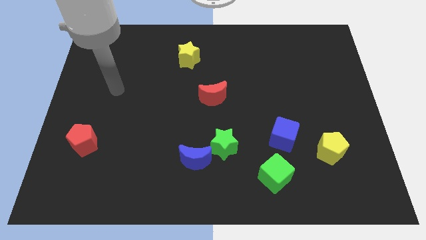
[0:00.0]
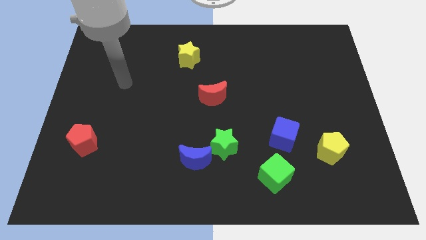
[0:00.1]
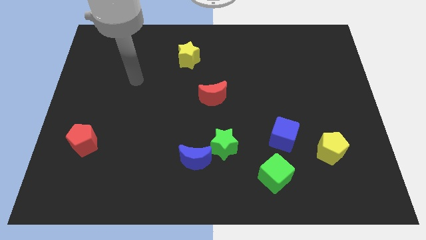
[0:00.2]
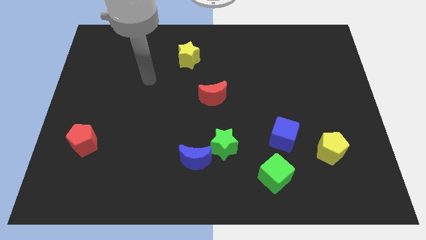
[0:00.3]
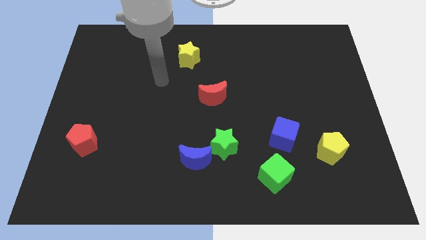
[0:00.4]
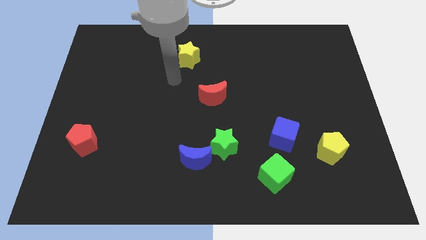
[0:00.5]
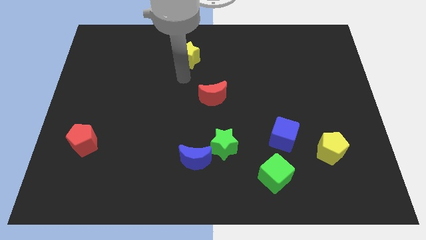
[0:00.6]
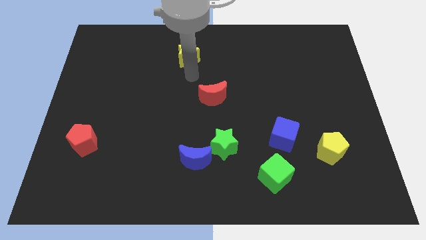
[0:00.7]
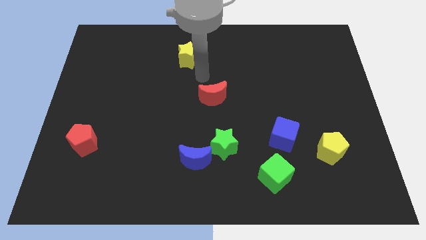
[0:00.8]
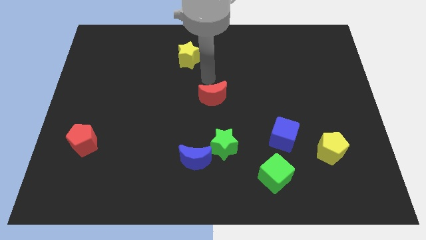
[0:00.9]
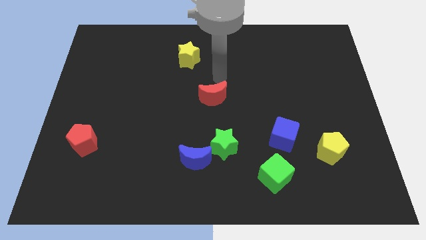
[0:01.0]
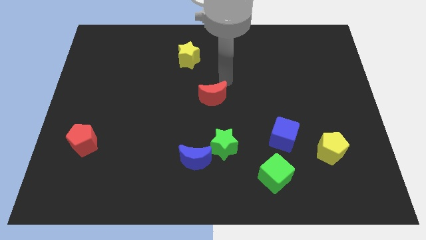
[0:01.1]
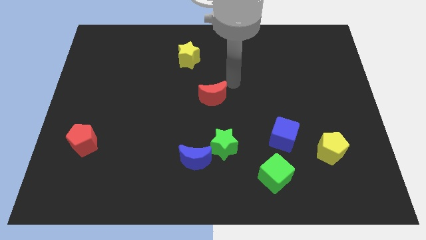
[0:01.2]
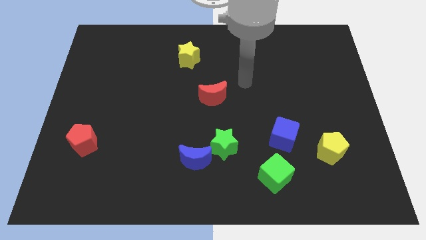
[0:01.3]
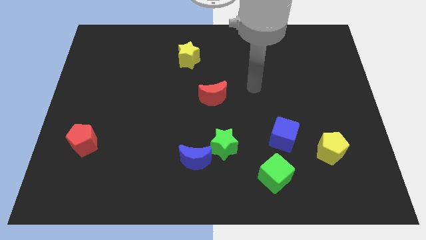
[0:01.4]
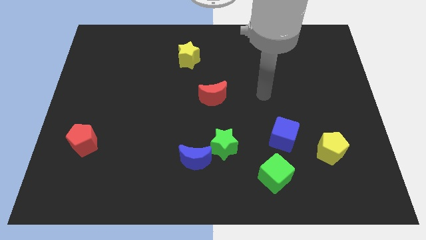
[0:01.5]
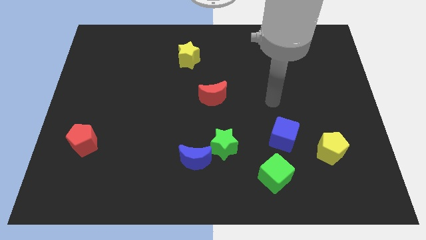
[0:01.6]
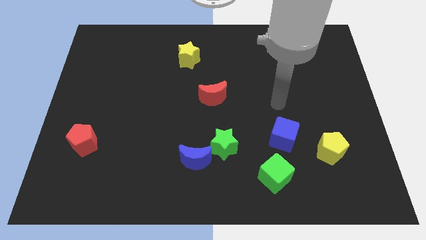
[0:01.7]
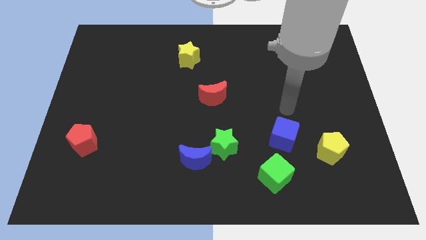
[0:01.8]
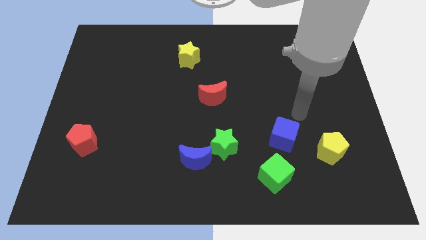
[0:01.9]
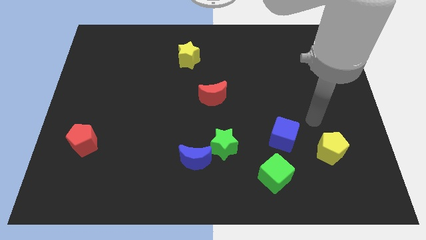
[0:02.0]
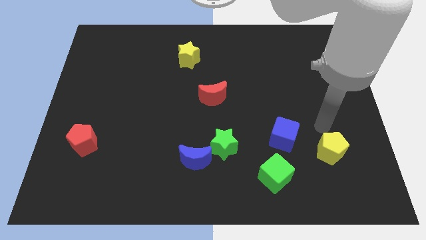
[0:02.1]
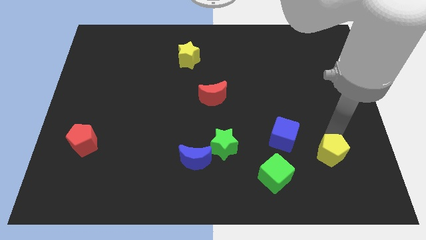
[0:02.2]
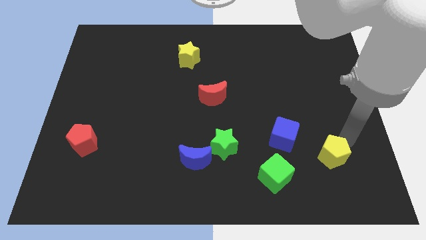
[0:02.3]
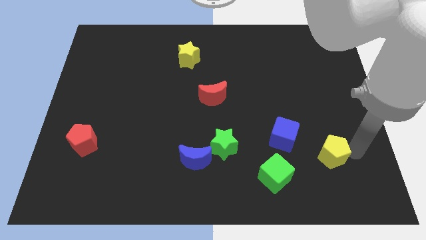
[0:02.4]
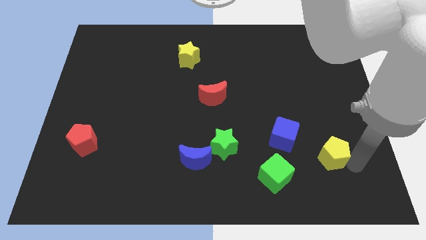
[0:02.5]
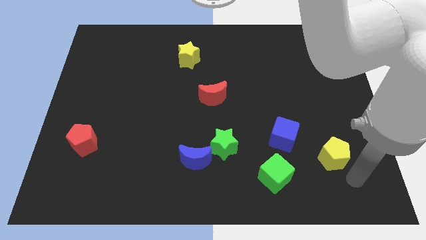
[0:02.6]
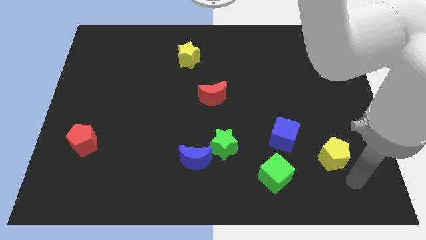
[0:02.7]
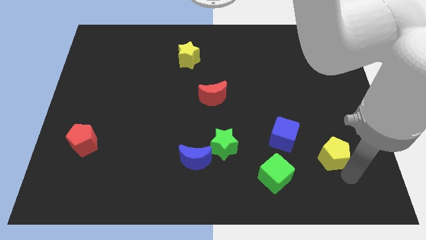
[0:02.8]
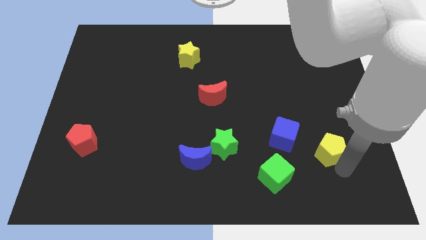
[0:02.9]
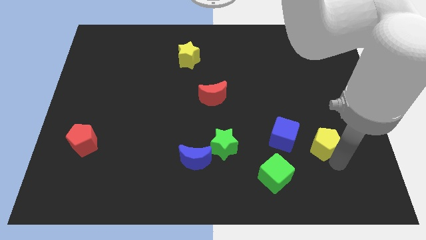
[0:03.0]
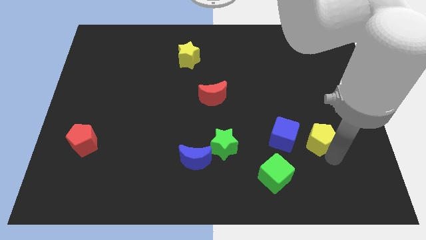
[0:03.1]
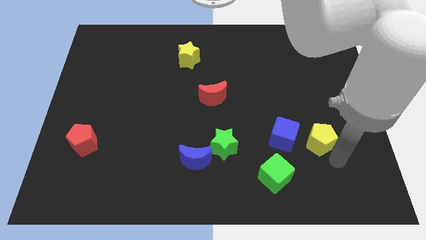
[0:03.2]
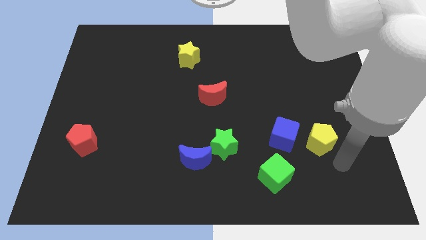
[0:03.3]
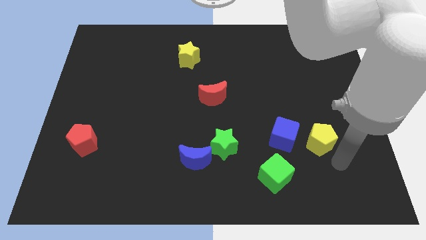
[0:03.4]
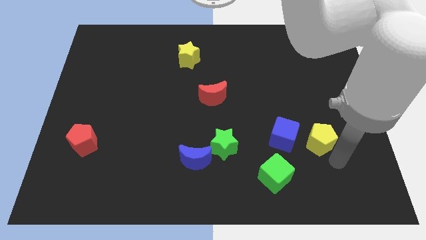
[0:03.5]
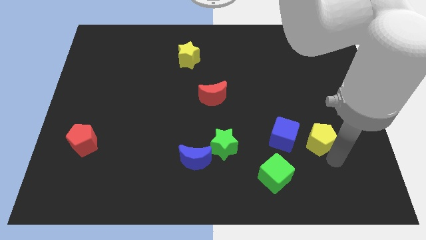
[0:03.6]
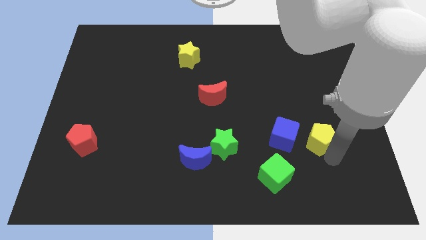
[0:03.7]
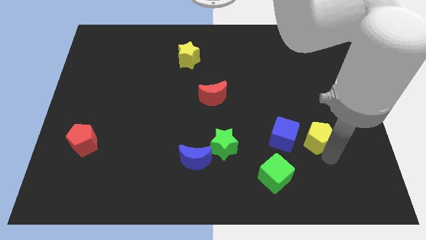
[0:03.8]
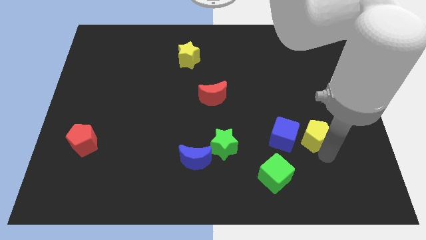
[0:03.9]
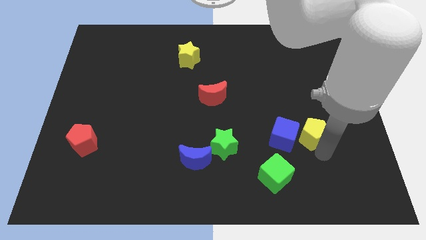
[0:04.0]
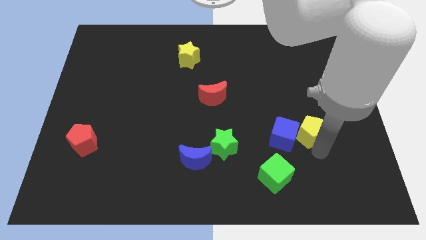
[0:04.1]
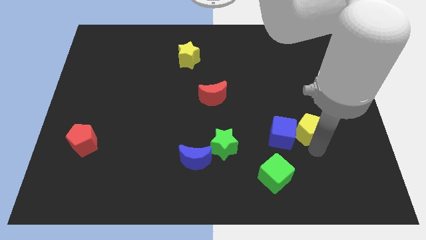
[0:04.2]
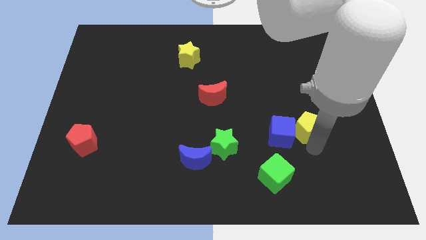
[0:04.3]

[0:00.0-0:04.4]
move the yellow pentagon diagonally up and to the left slightly

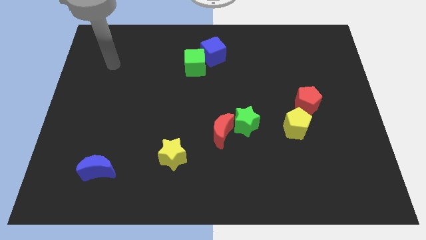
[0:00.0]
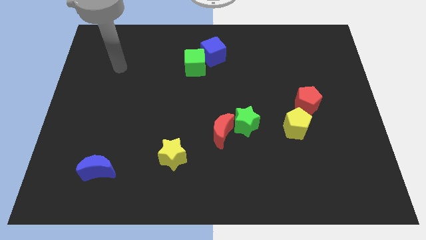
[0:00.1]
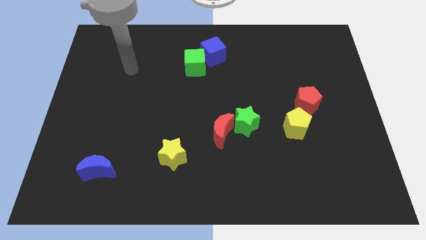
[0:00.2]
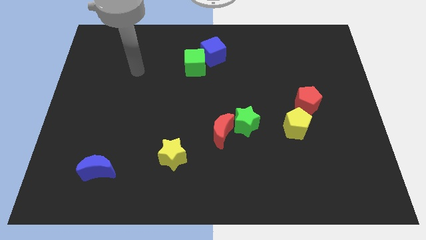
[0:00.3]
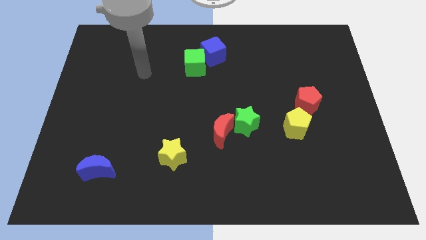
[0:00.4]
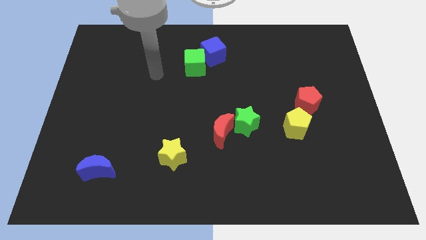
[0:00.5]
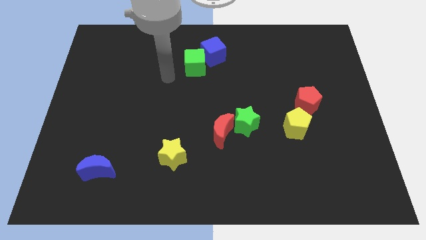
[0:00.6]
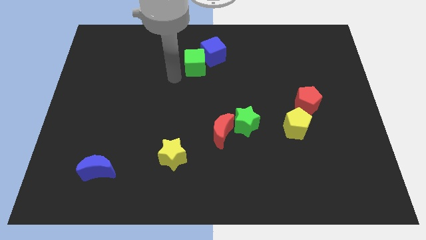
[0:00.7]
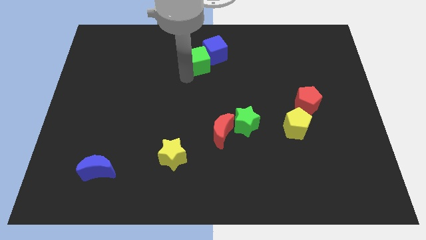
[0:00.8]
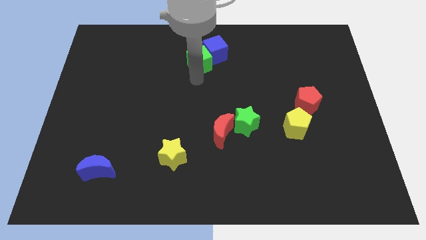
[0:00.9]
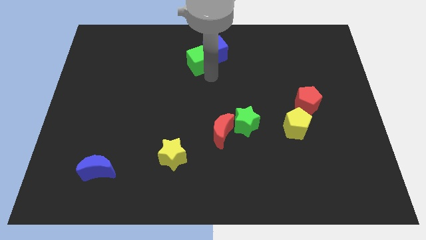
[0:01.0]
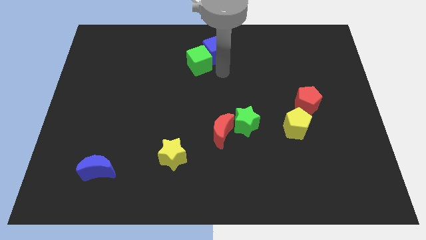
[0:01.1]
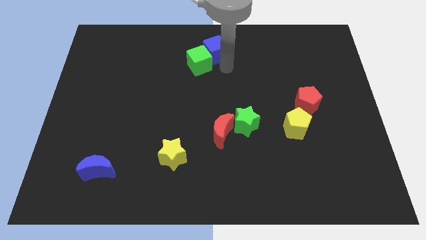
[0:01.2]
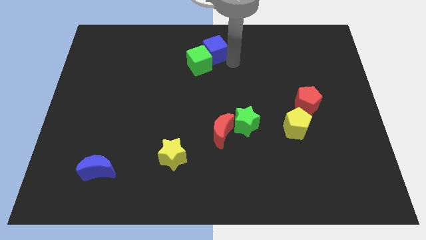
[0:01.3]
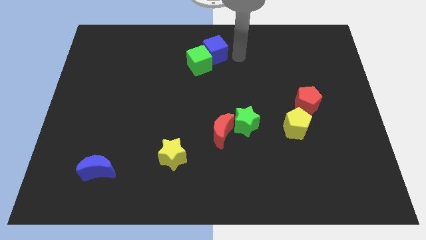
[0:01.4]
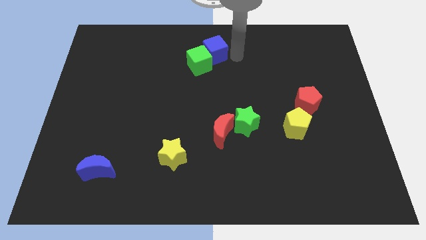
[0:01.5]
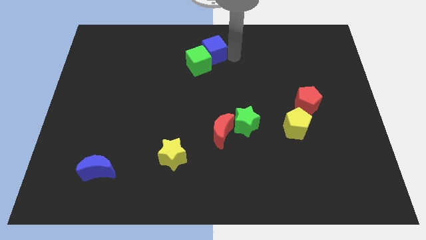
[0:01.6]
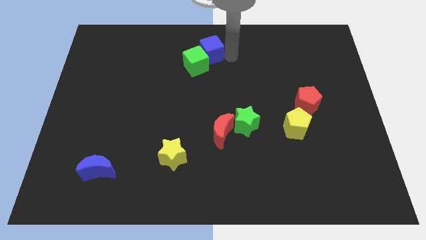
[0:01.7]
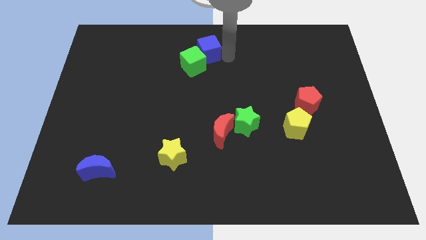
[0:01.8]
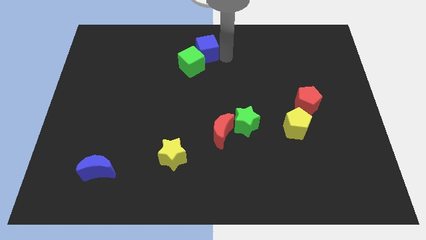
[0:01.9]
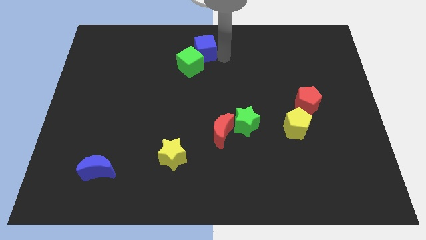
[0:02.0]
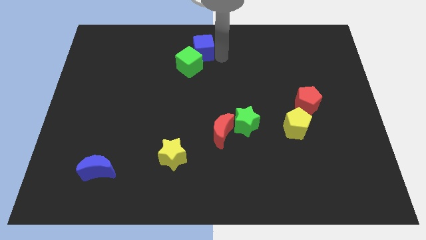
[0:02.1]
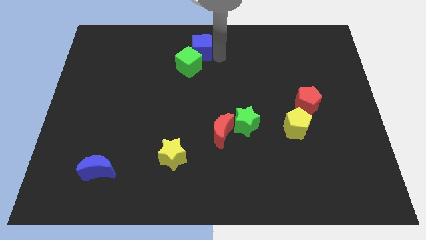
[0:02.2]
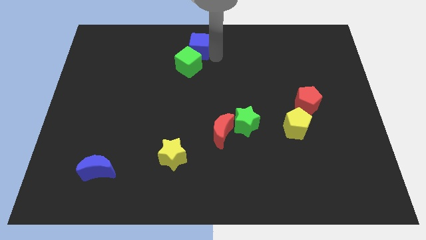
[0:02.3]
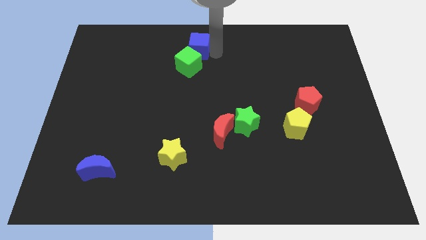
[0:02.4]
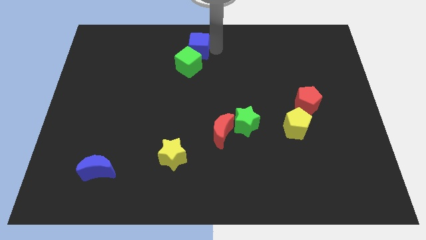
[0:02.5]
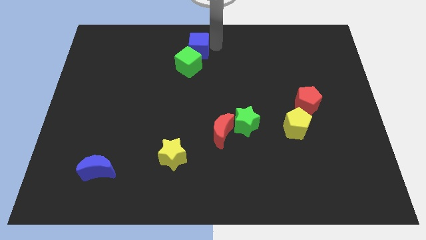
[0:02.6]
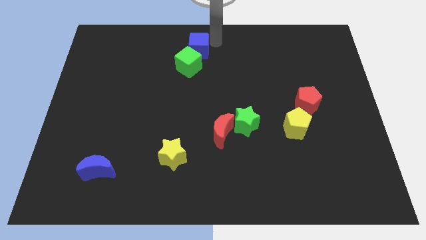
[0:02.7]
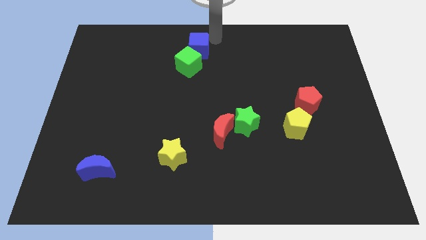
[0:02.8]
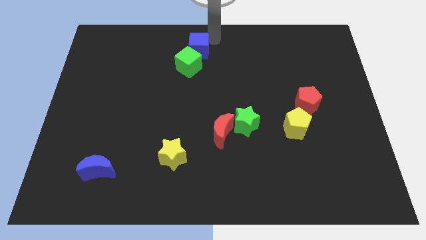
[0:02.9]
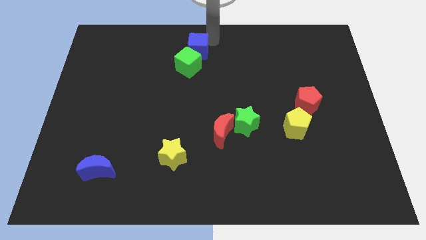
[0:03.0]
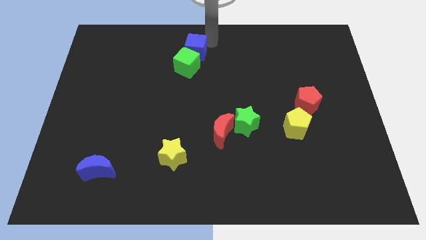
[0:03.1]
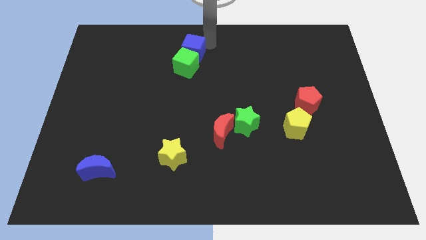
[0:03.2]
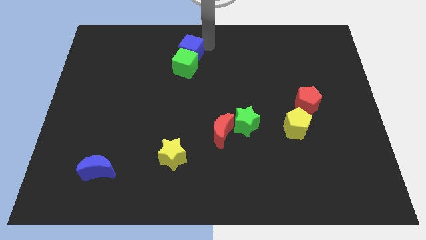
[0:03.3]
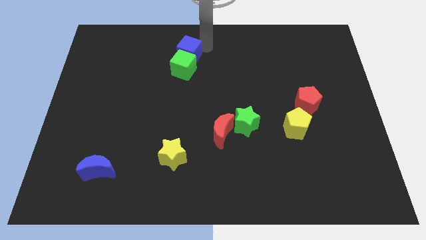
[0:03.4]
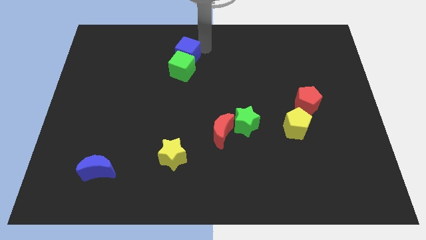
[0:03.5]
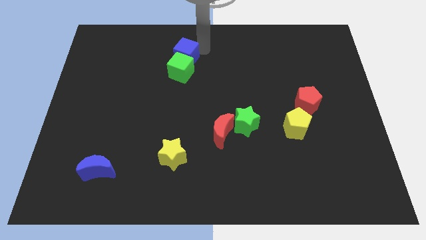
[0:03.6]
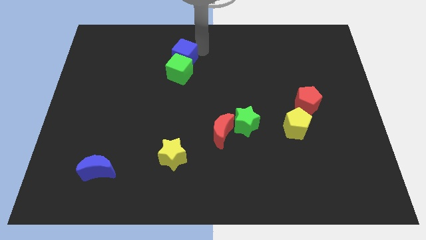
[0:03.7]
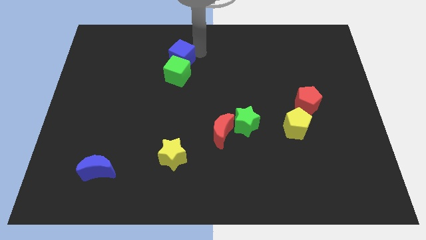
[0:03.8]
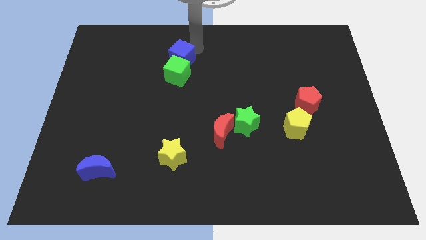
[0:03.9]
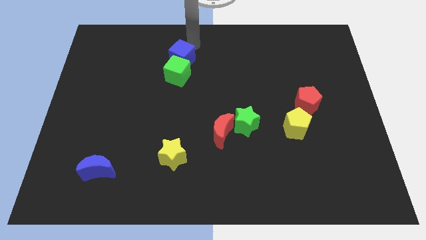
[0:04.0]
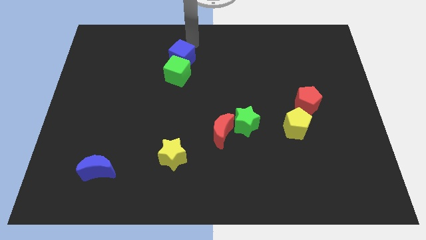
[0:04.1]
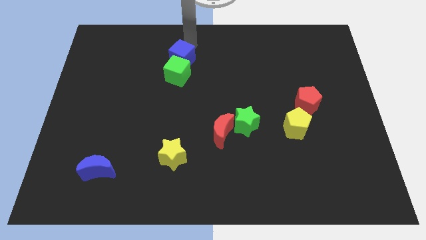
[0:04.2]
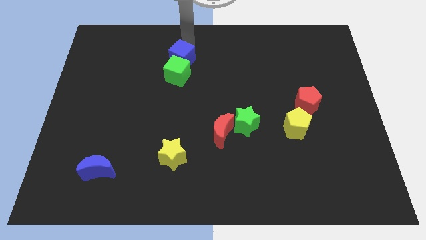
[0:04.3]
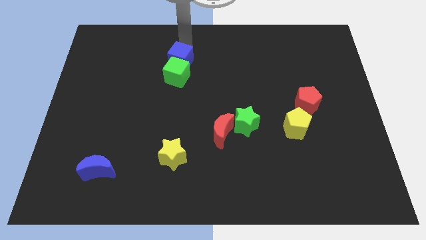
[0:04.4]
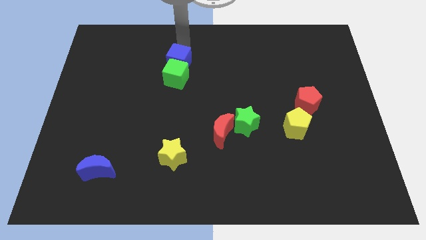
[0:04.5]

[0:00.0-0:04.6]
slightly move the blue cube down and to the left diagonally
